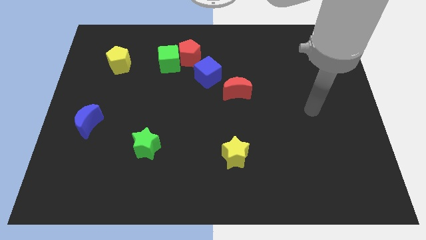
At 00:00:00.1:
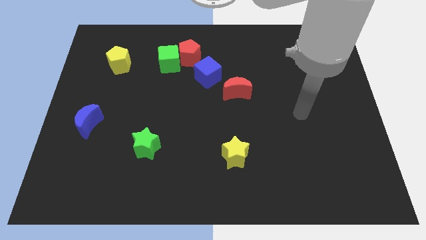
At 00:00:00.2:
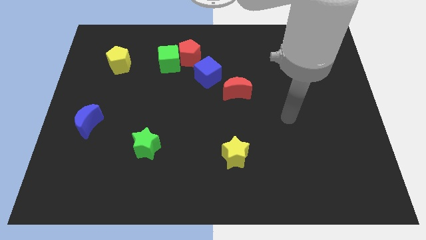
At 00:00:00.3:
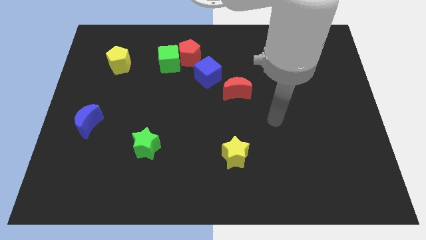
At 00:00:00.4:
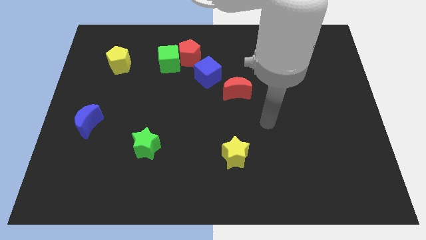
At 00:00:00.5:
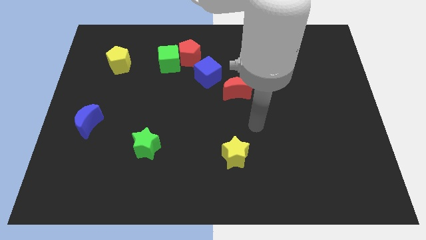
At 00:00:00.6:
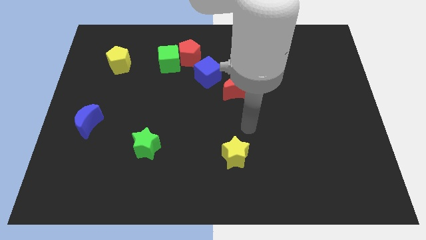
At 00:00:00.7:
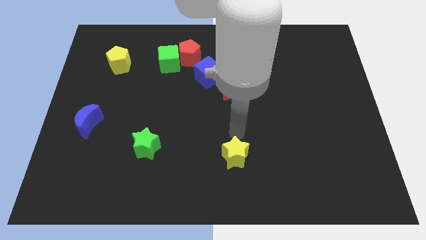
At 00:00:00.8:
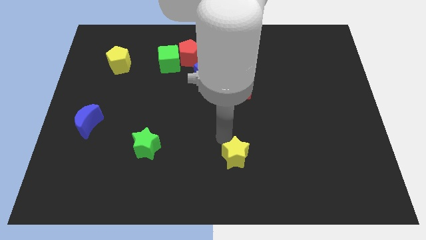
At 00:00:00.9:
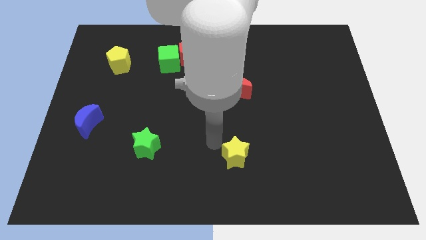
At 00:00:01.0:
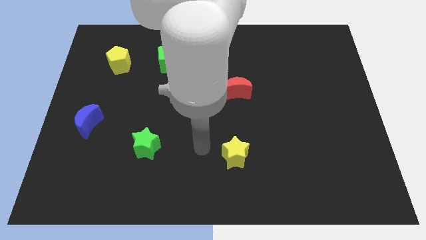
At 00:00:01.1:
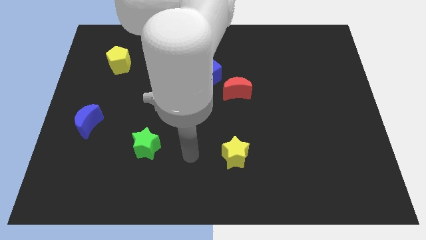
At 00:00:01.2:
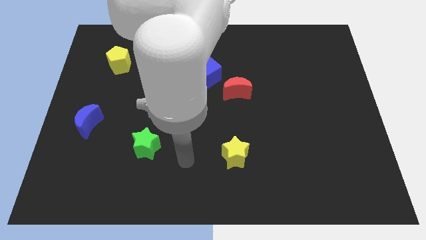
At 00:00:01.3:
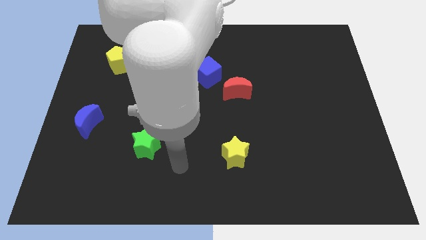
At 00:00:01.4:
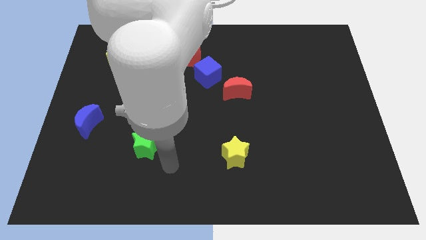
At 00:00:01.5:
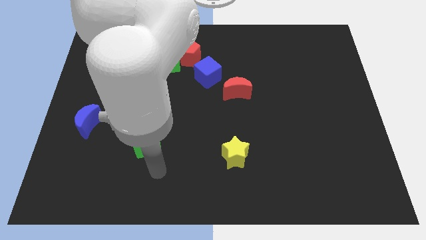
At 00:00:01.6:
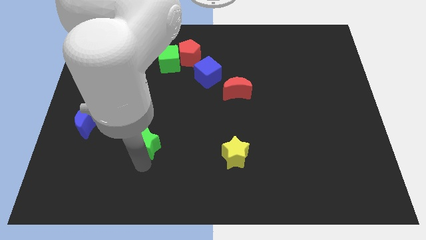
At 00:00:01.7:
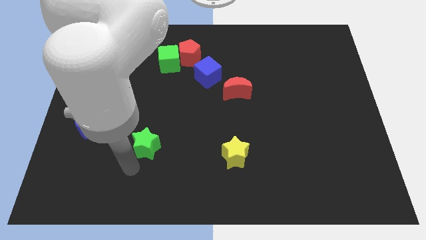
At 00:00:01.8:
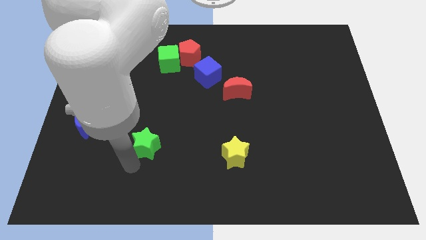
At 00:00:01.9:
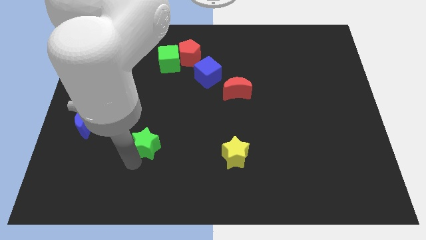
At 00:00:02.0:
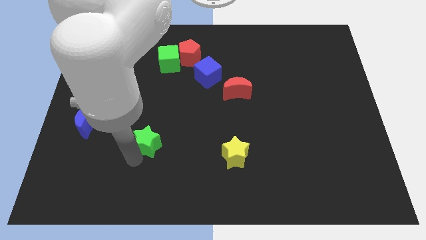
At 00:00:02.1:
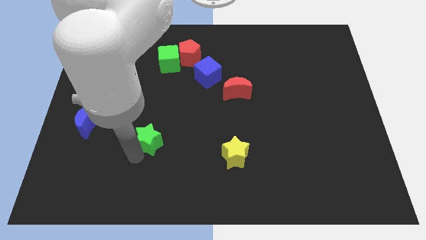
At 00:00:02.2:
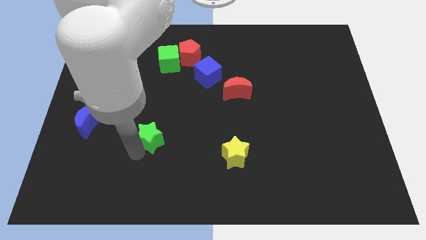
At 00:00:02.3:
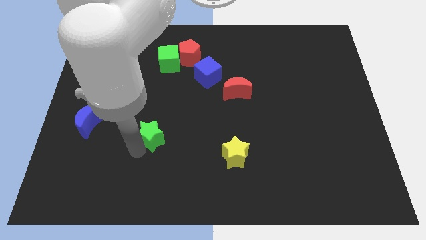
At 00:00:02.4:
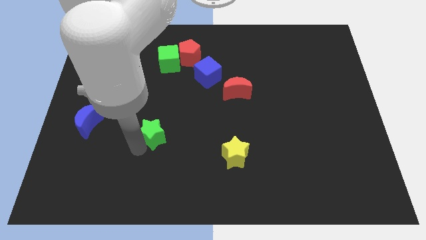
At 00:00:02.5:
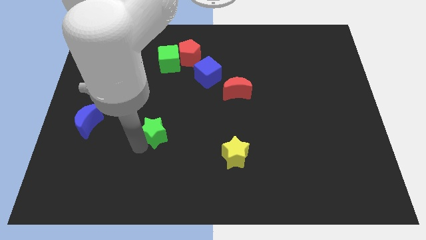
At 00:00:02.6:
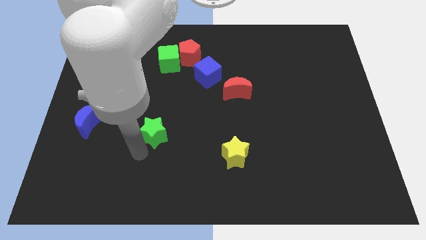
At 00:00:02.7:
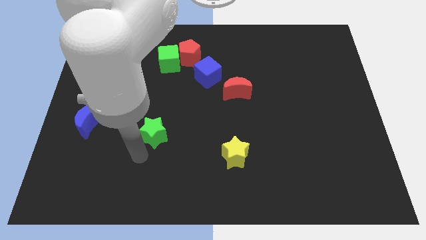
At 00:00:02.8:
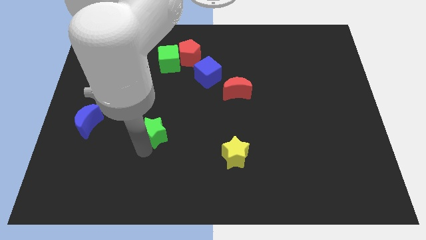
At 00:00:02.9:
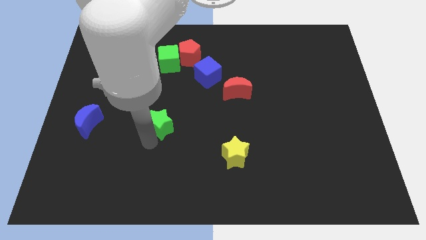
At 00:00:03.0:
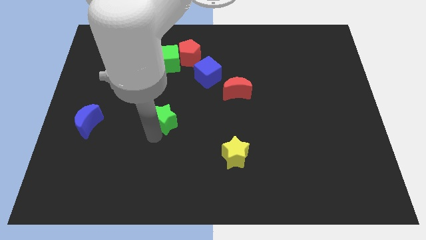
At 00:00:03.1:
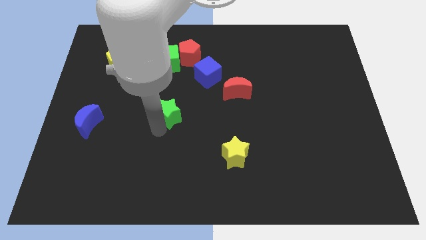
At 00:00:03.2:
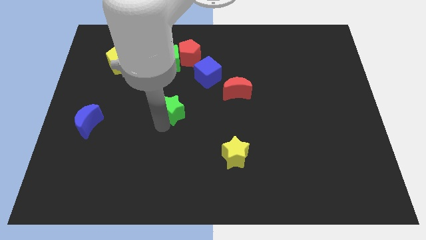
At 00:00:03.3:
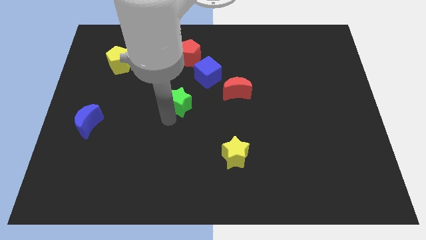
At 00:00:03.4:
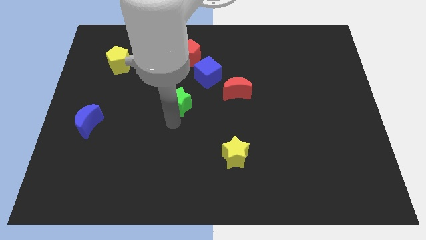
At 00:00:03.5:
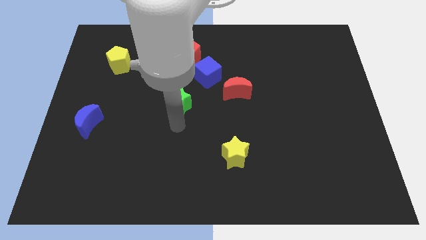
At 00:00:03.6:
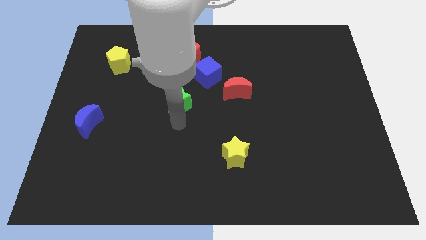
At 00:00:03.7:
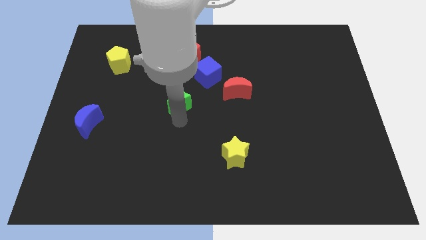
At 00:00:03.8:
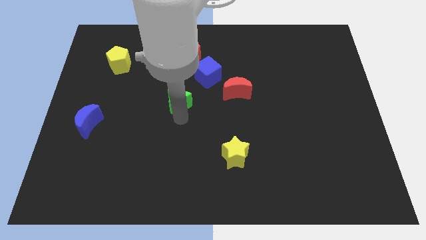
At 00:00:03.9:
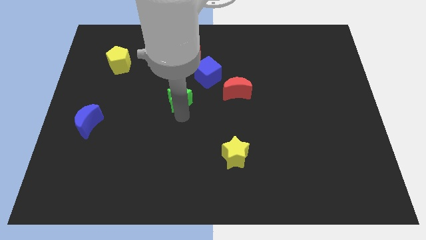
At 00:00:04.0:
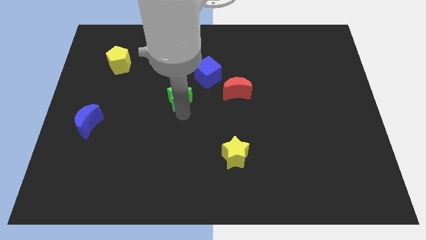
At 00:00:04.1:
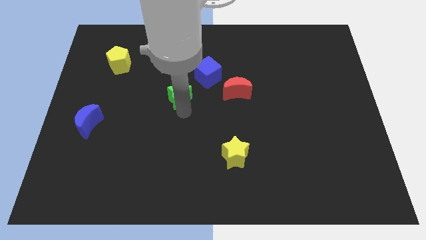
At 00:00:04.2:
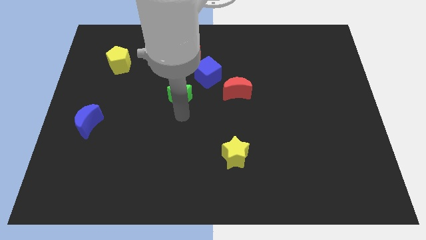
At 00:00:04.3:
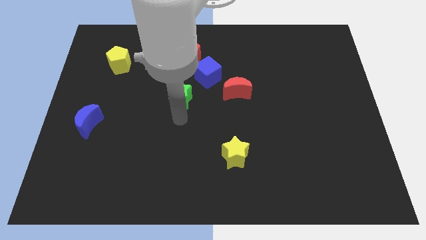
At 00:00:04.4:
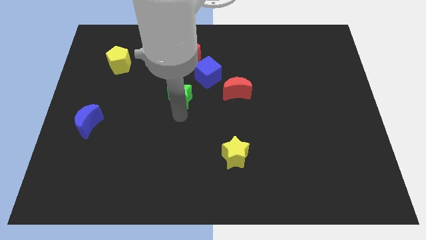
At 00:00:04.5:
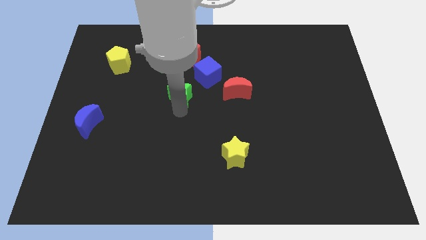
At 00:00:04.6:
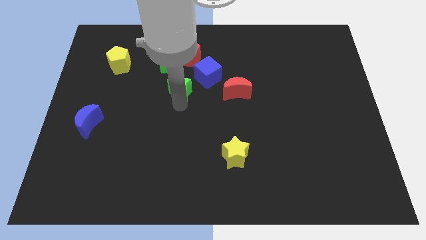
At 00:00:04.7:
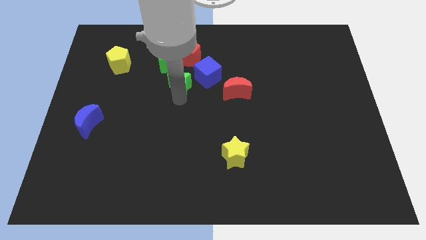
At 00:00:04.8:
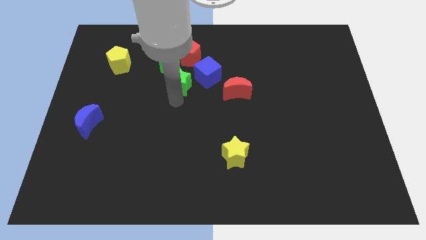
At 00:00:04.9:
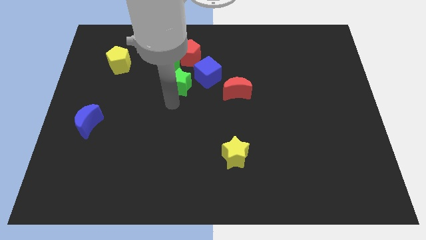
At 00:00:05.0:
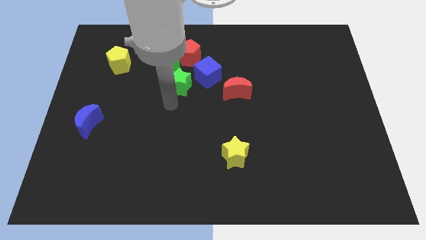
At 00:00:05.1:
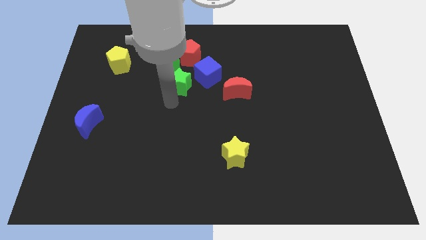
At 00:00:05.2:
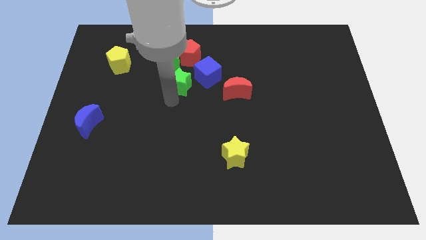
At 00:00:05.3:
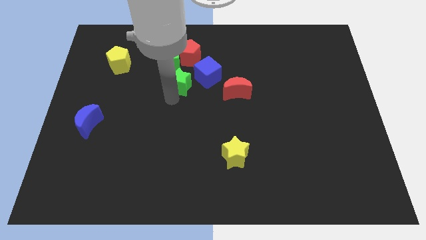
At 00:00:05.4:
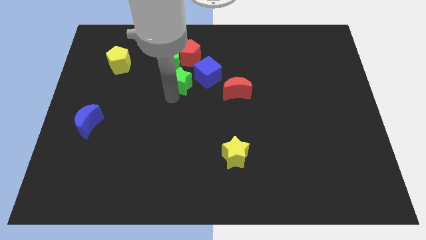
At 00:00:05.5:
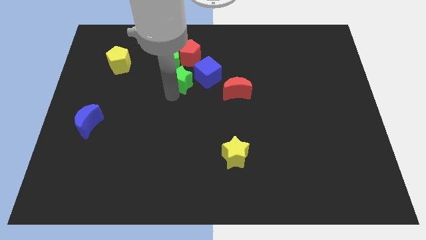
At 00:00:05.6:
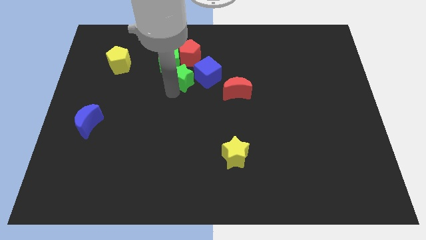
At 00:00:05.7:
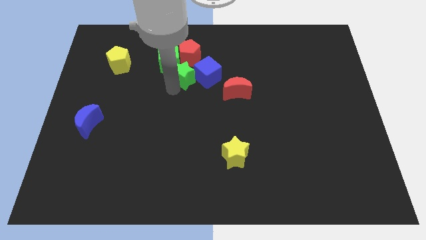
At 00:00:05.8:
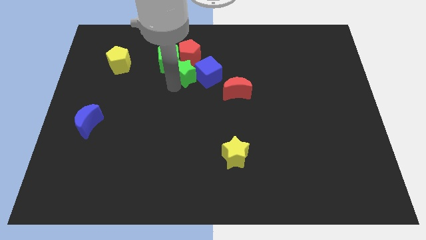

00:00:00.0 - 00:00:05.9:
move the green star just right of the green cube
